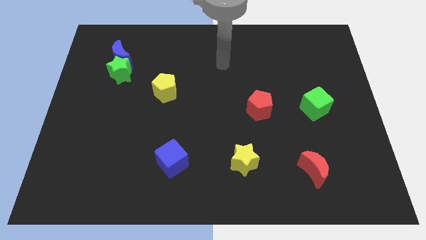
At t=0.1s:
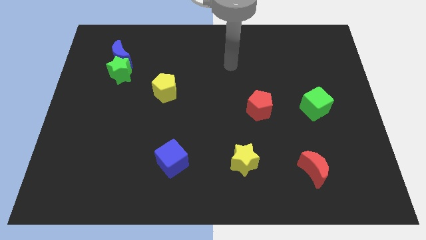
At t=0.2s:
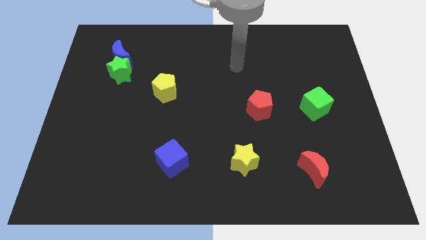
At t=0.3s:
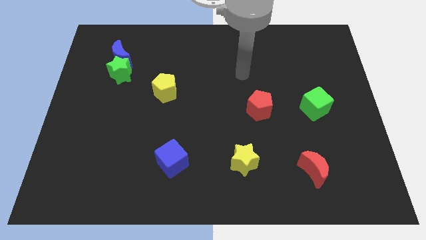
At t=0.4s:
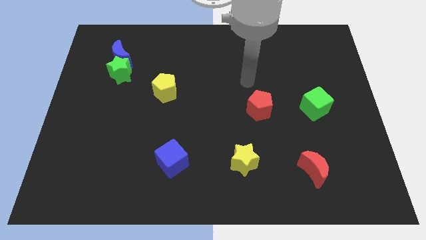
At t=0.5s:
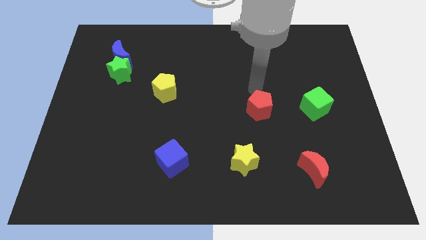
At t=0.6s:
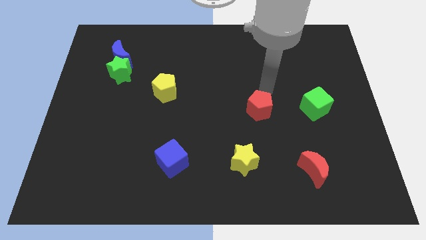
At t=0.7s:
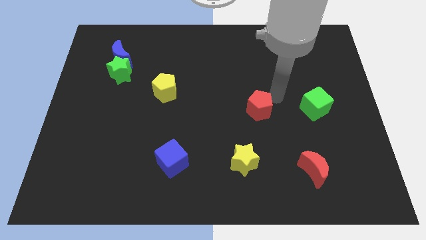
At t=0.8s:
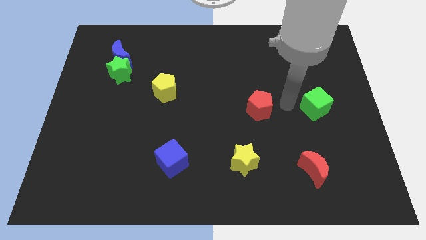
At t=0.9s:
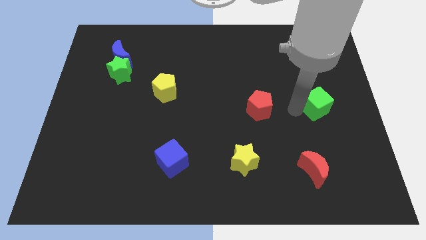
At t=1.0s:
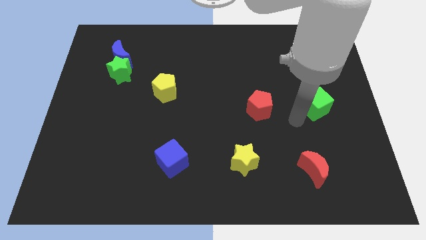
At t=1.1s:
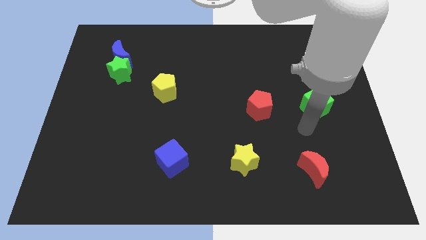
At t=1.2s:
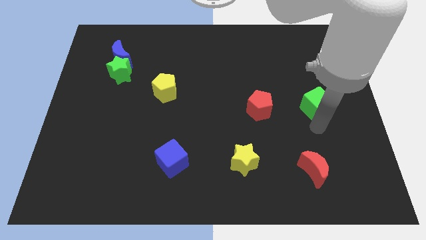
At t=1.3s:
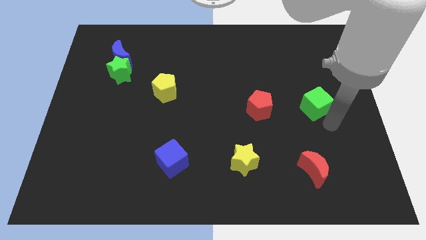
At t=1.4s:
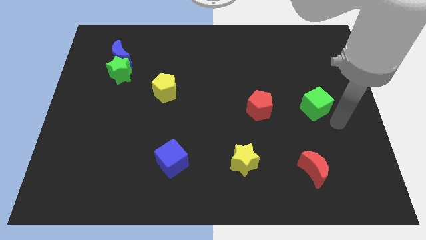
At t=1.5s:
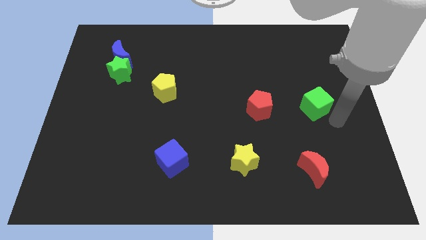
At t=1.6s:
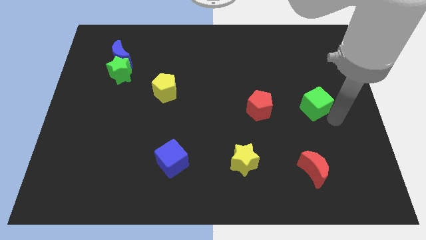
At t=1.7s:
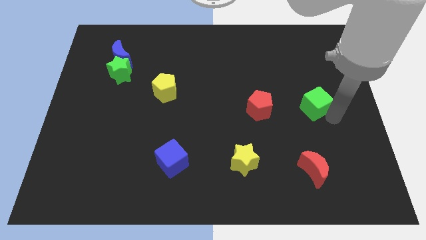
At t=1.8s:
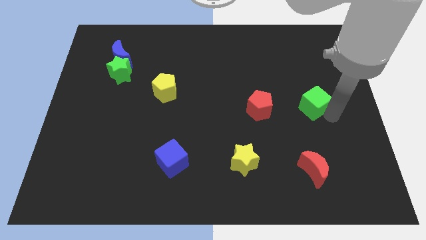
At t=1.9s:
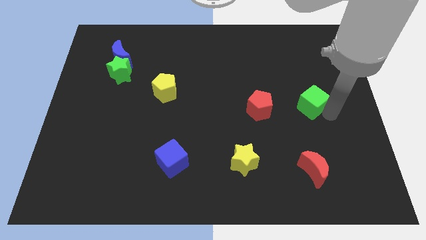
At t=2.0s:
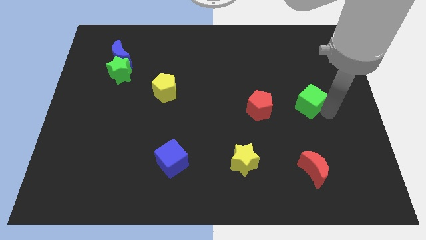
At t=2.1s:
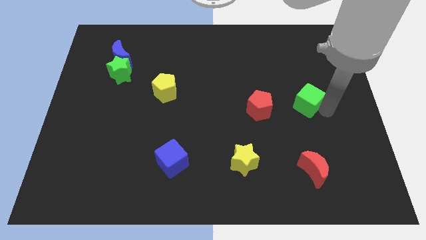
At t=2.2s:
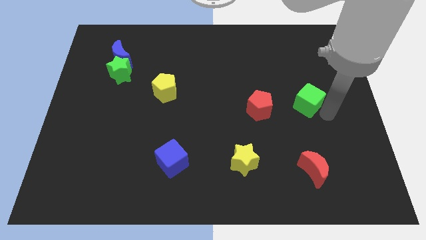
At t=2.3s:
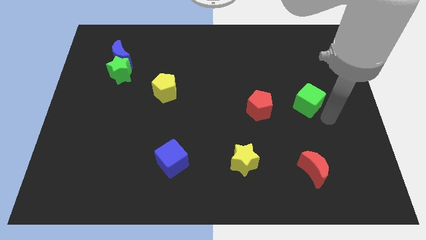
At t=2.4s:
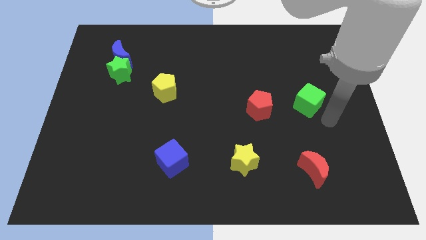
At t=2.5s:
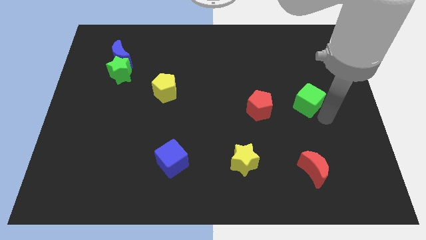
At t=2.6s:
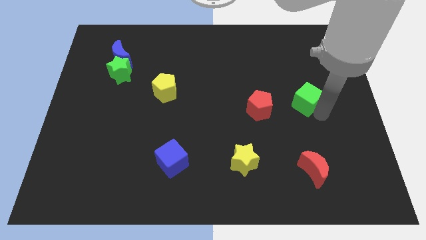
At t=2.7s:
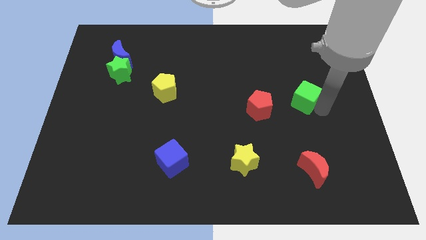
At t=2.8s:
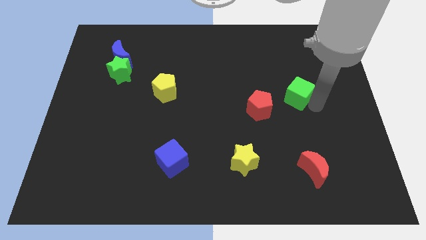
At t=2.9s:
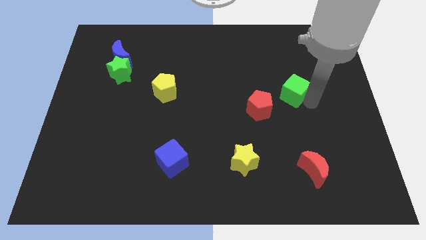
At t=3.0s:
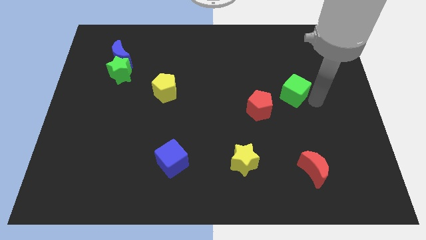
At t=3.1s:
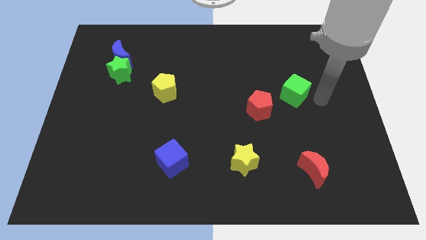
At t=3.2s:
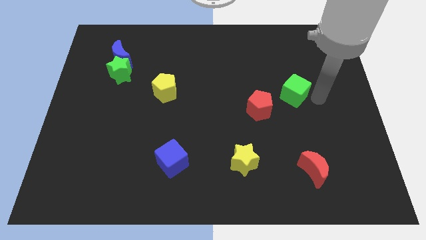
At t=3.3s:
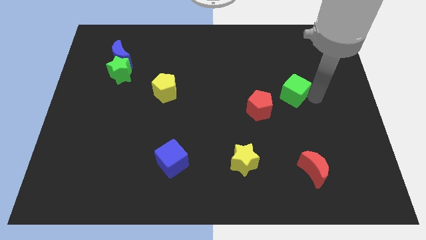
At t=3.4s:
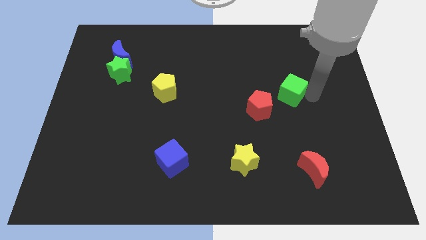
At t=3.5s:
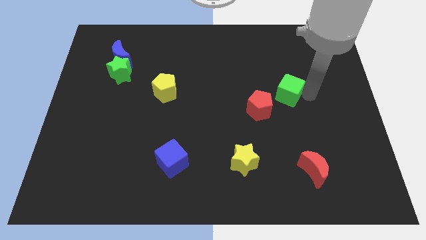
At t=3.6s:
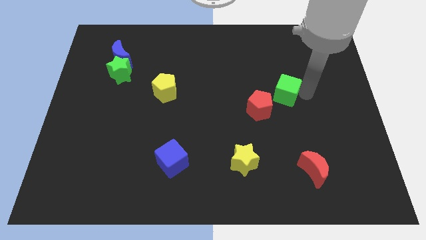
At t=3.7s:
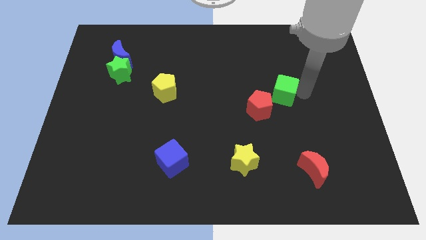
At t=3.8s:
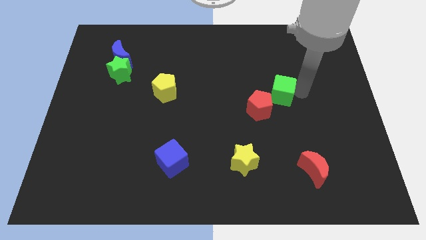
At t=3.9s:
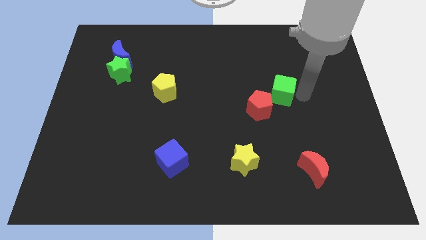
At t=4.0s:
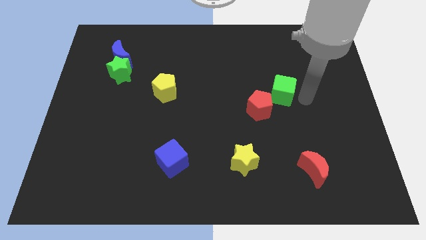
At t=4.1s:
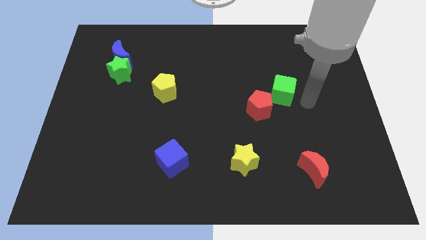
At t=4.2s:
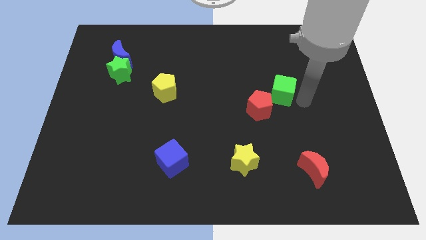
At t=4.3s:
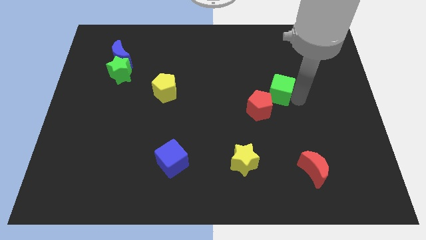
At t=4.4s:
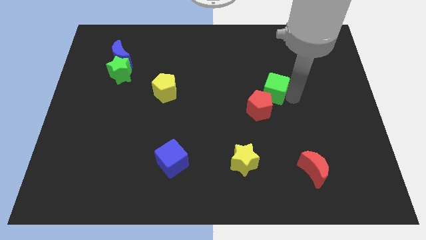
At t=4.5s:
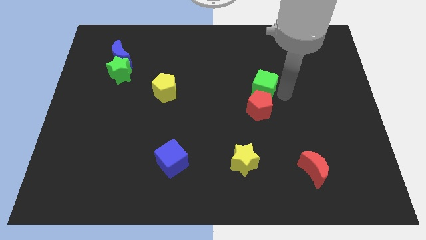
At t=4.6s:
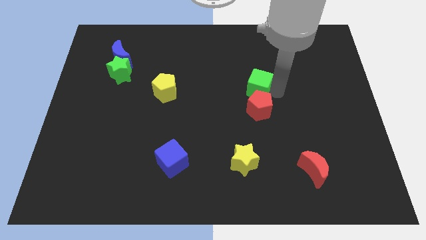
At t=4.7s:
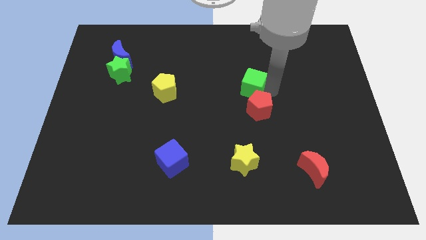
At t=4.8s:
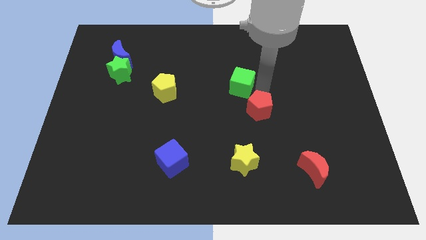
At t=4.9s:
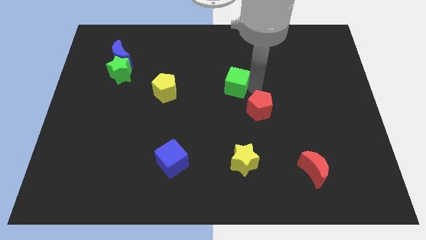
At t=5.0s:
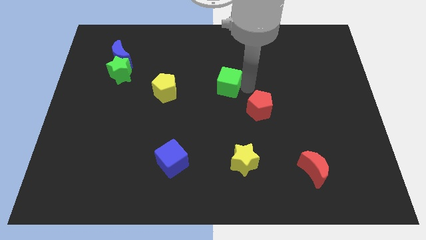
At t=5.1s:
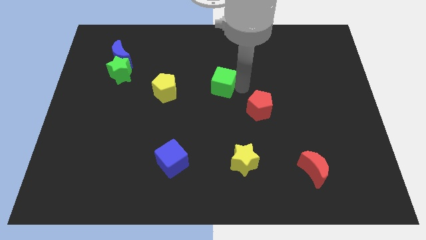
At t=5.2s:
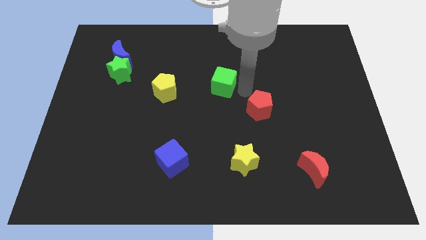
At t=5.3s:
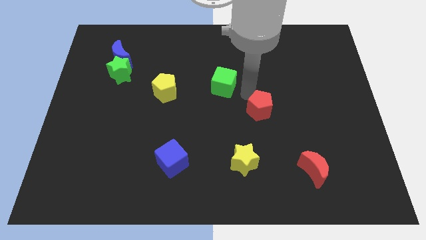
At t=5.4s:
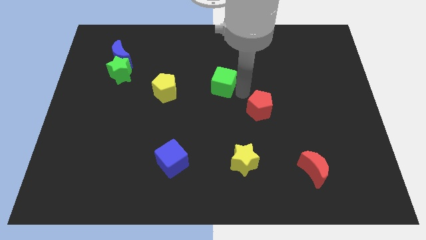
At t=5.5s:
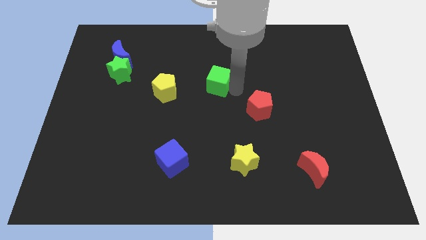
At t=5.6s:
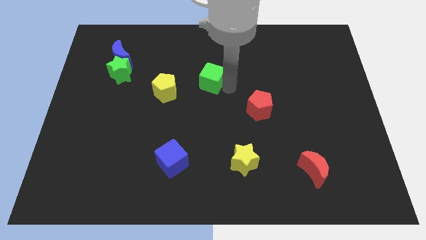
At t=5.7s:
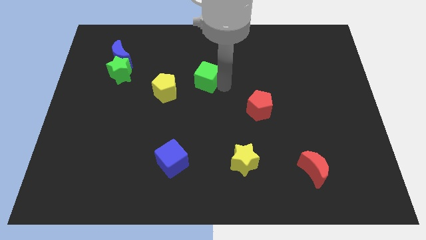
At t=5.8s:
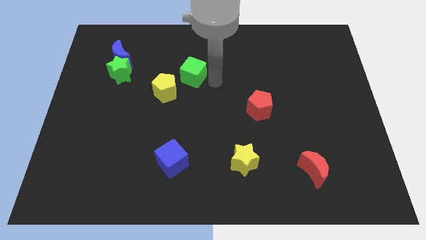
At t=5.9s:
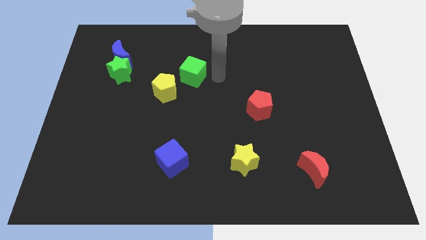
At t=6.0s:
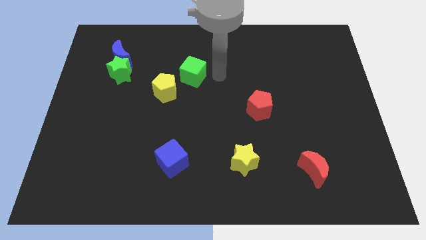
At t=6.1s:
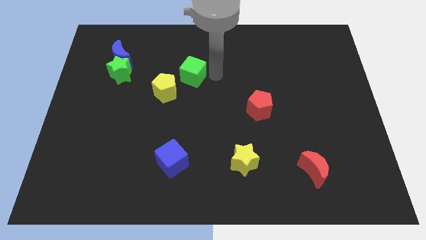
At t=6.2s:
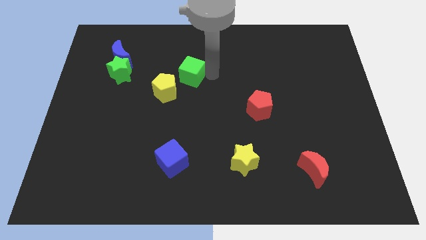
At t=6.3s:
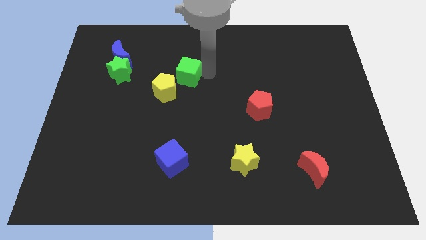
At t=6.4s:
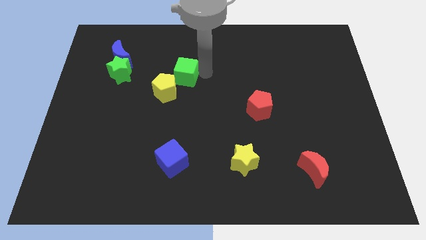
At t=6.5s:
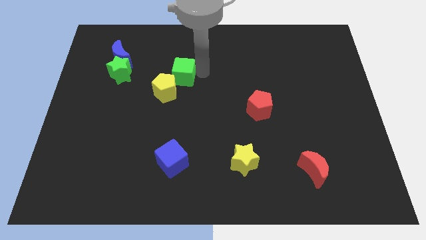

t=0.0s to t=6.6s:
slide the green cube to the right side of the green star

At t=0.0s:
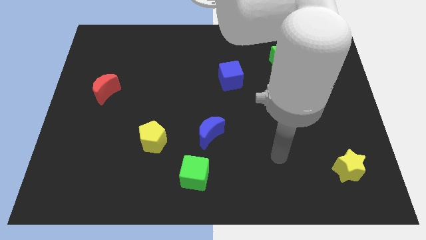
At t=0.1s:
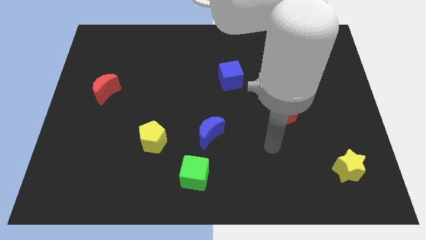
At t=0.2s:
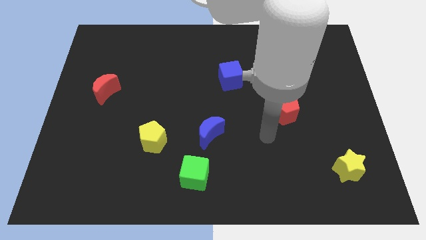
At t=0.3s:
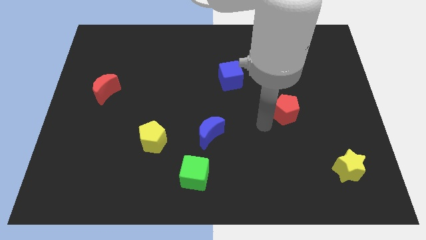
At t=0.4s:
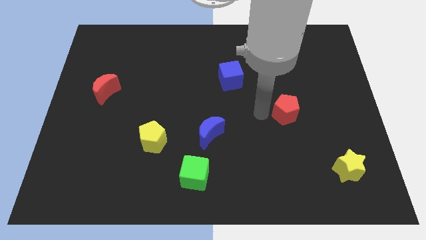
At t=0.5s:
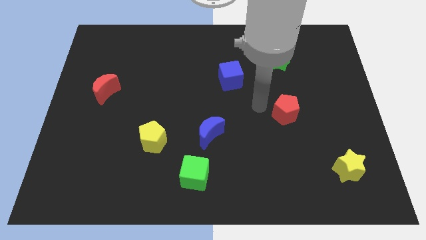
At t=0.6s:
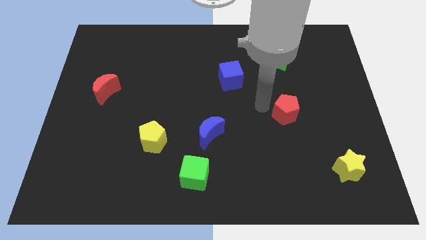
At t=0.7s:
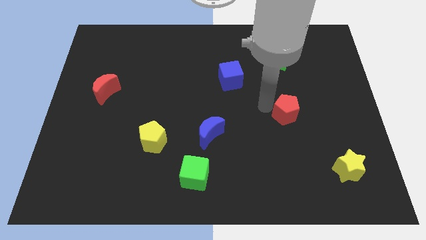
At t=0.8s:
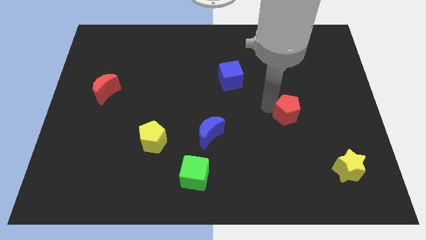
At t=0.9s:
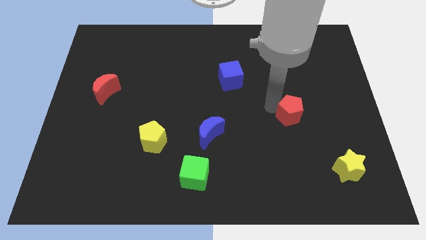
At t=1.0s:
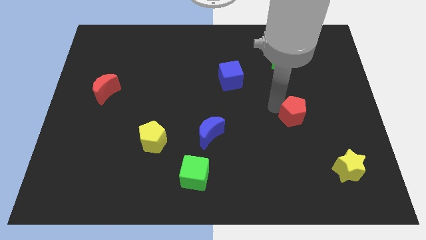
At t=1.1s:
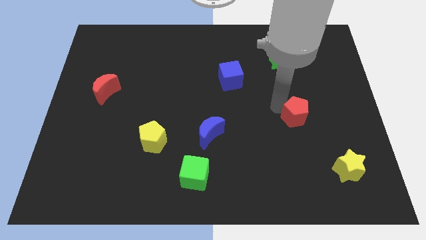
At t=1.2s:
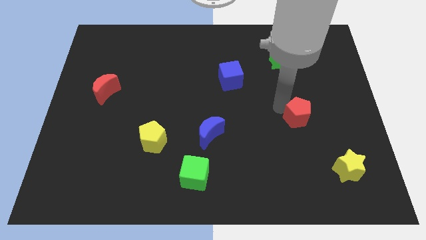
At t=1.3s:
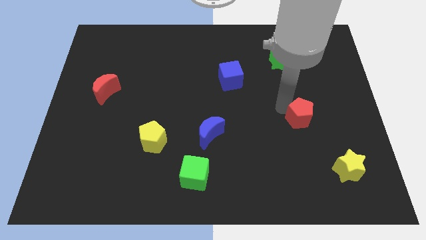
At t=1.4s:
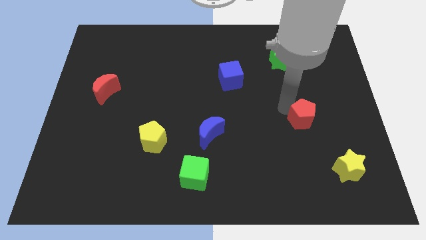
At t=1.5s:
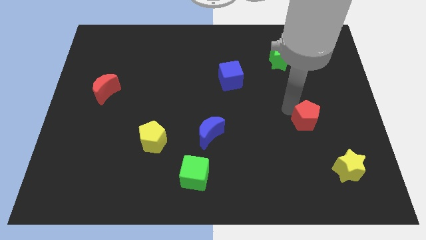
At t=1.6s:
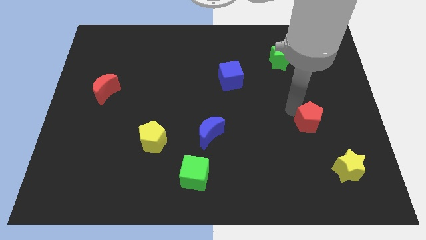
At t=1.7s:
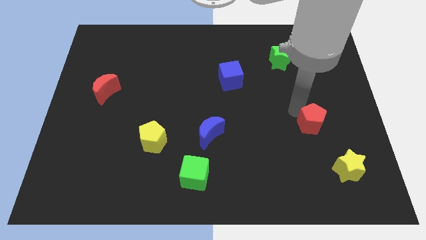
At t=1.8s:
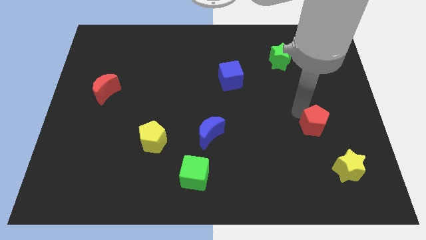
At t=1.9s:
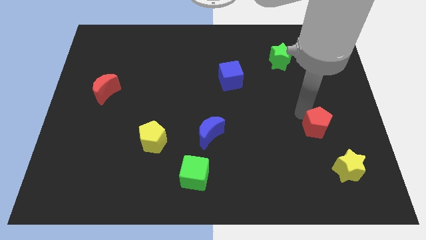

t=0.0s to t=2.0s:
move the red pentagon above the yellow star
